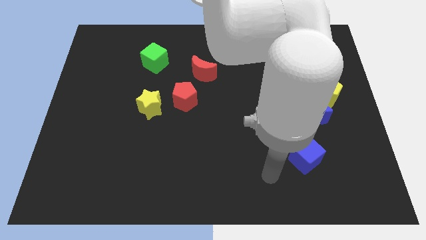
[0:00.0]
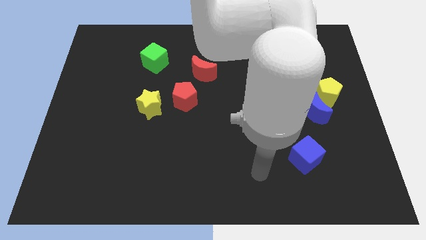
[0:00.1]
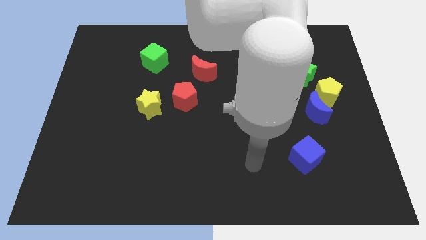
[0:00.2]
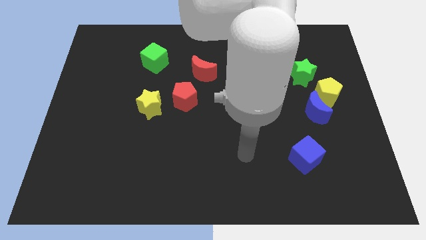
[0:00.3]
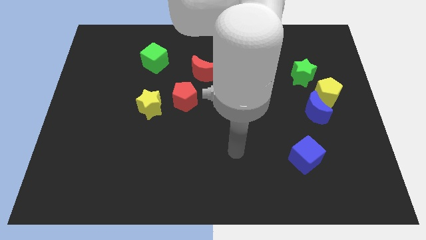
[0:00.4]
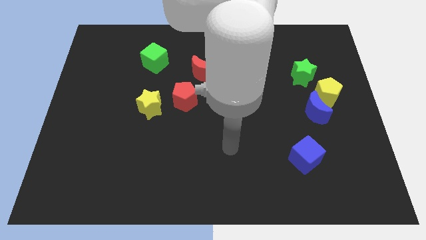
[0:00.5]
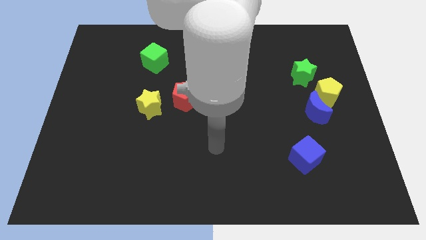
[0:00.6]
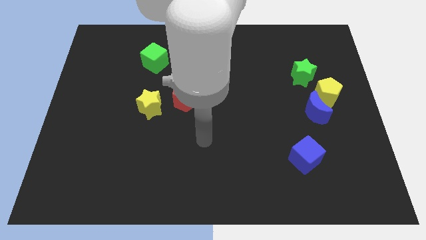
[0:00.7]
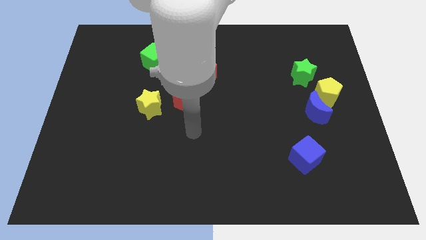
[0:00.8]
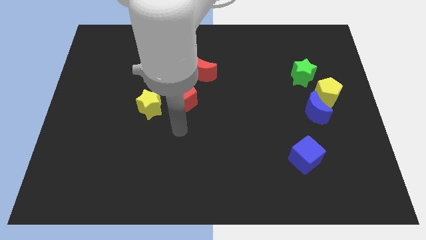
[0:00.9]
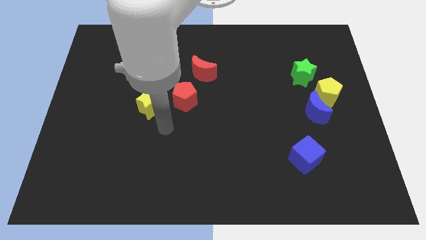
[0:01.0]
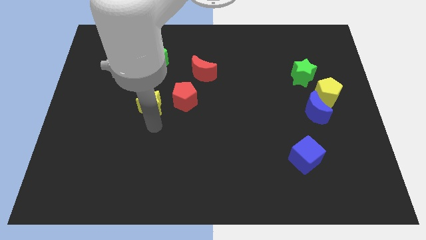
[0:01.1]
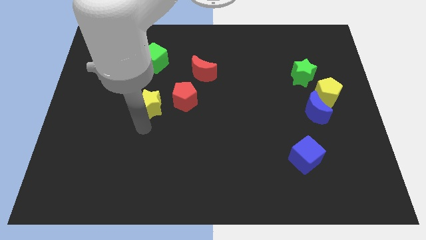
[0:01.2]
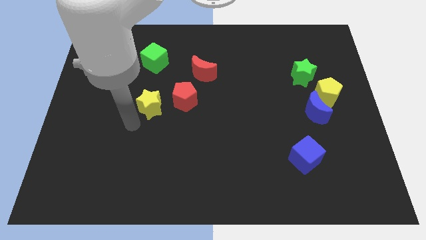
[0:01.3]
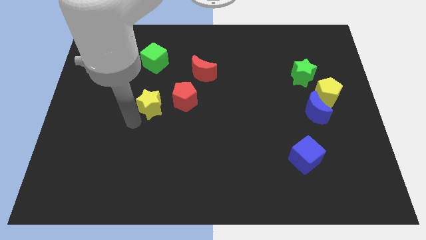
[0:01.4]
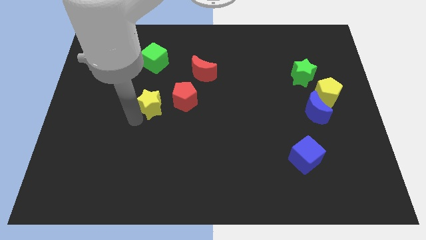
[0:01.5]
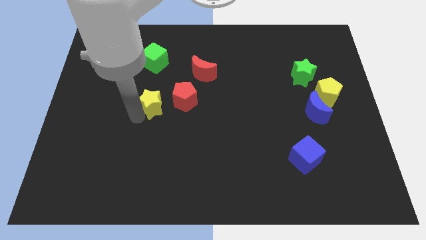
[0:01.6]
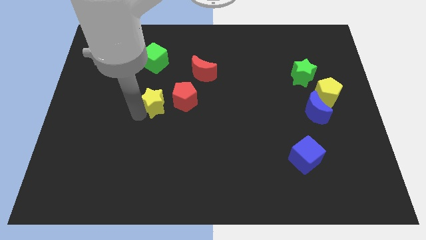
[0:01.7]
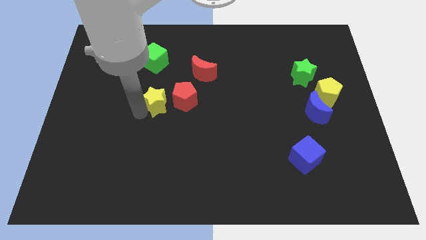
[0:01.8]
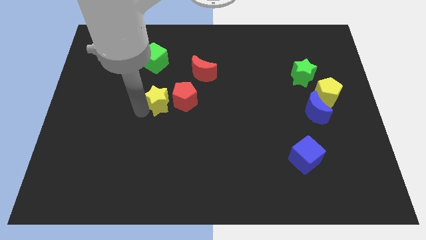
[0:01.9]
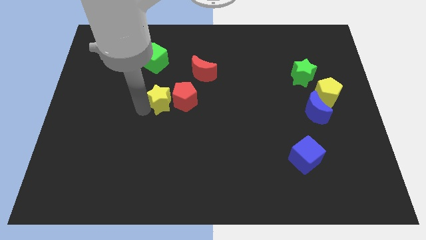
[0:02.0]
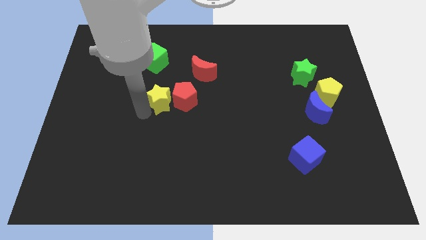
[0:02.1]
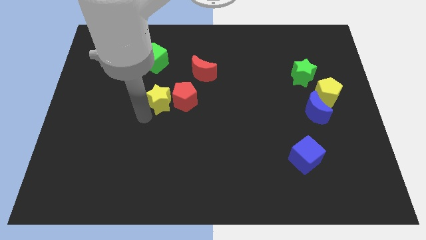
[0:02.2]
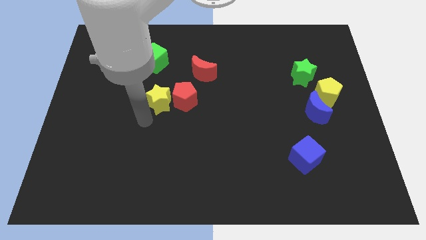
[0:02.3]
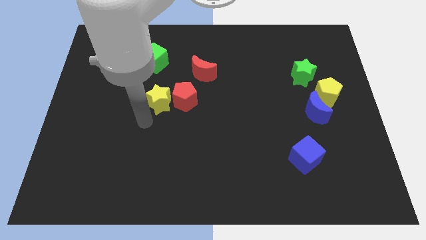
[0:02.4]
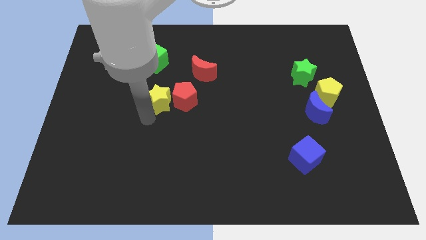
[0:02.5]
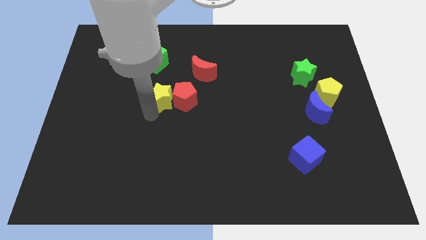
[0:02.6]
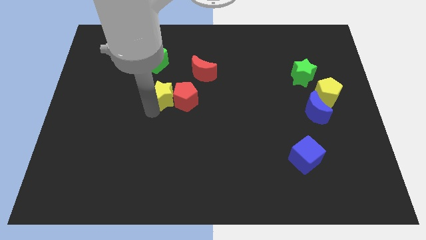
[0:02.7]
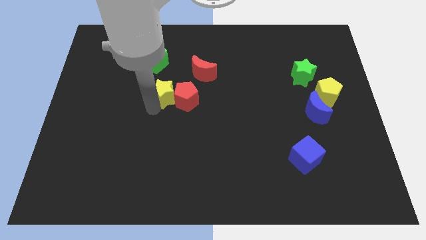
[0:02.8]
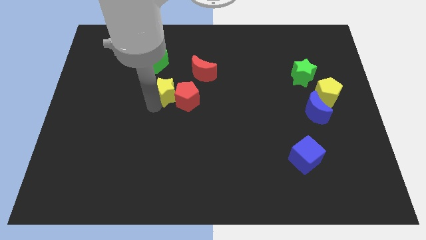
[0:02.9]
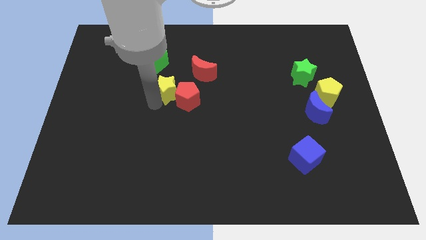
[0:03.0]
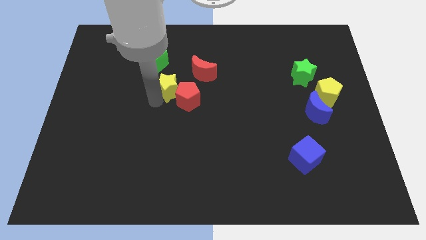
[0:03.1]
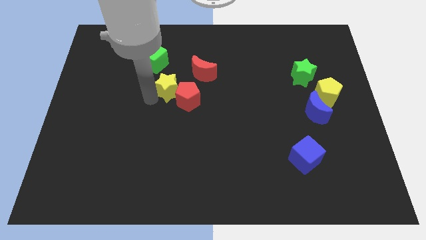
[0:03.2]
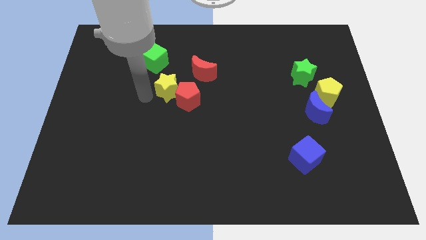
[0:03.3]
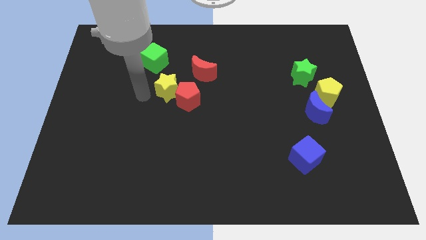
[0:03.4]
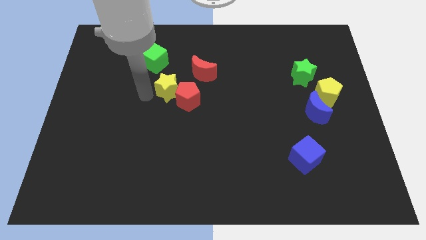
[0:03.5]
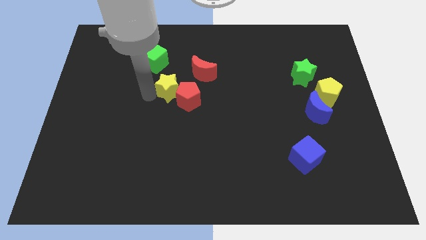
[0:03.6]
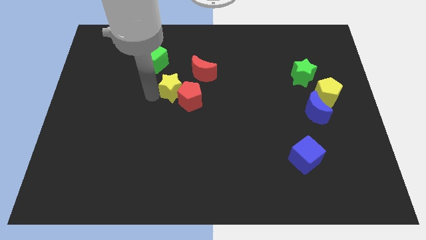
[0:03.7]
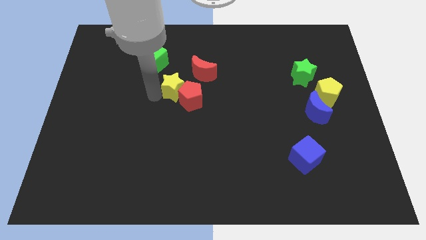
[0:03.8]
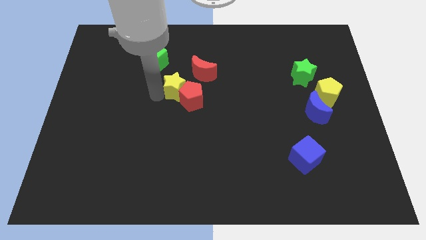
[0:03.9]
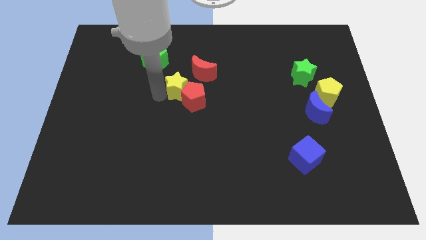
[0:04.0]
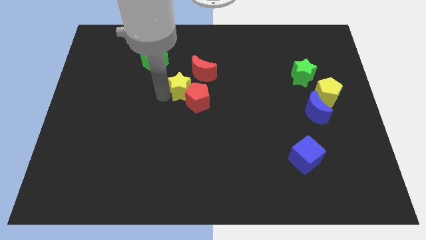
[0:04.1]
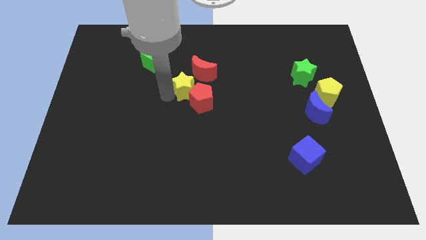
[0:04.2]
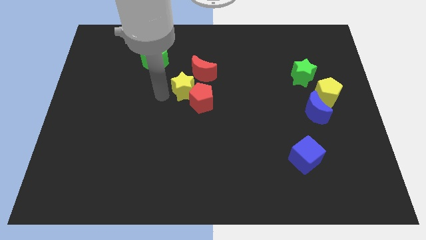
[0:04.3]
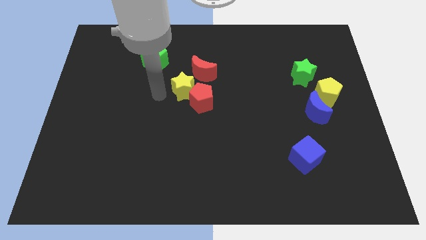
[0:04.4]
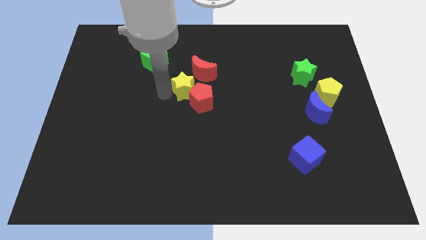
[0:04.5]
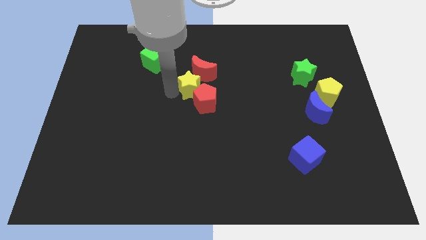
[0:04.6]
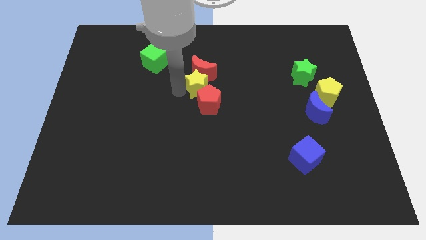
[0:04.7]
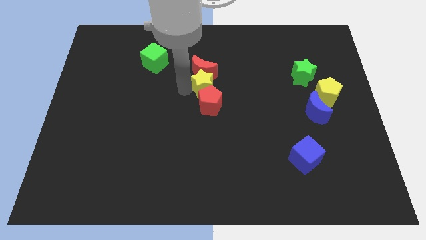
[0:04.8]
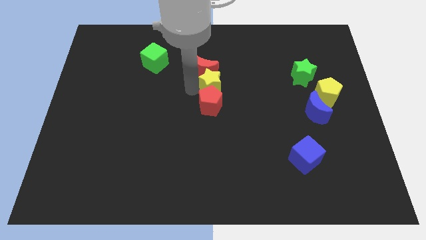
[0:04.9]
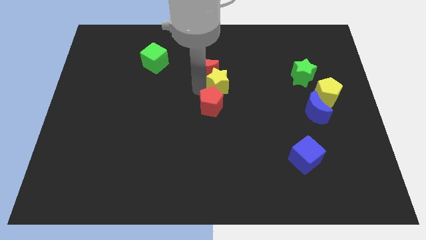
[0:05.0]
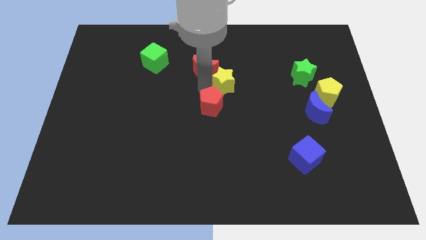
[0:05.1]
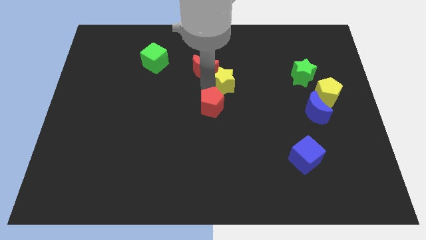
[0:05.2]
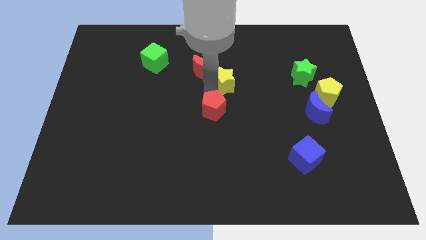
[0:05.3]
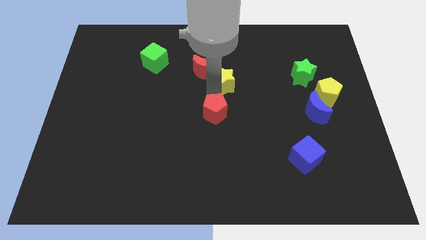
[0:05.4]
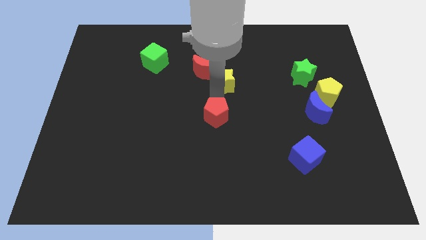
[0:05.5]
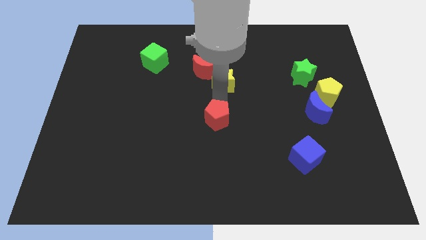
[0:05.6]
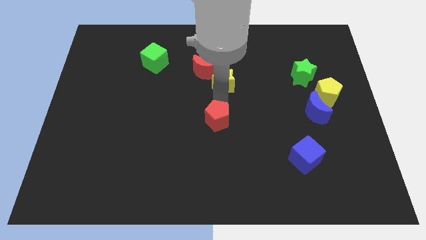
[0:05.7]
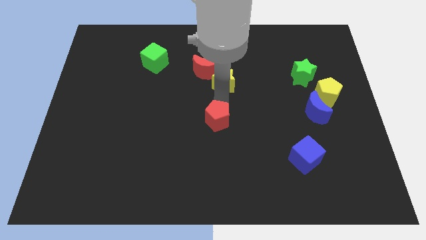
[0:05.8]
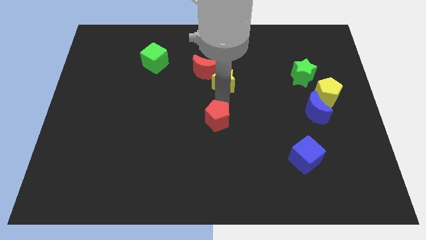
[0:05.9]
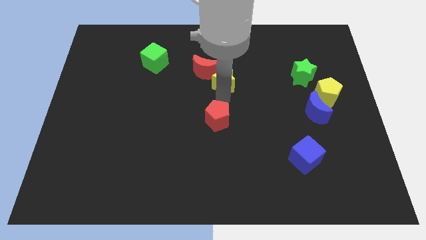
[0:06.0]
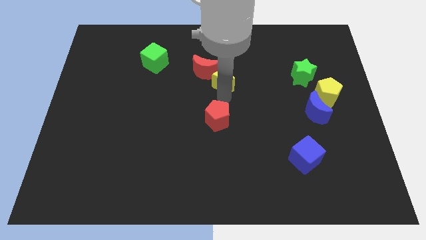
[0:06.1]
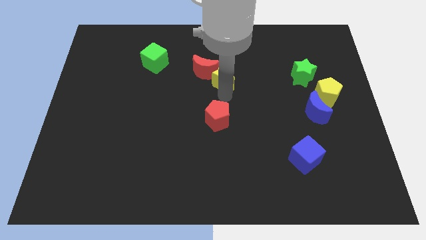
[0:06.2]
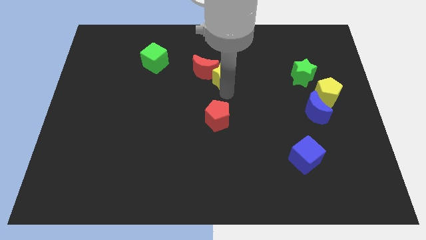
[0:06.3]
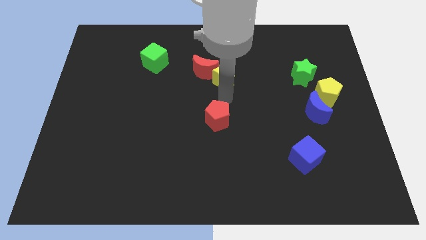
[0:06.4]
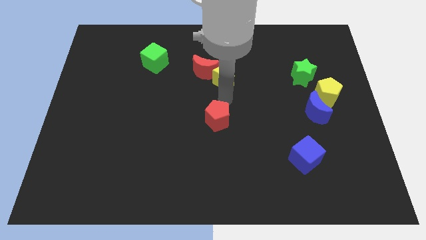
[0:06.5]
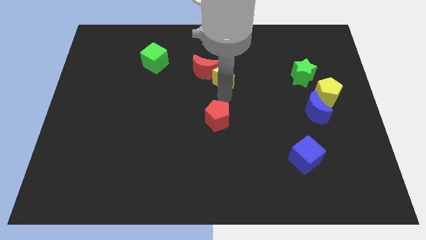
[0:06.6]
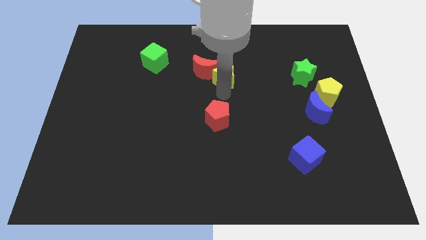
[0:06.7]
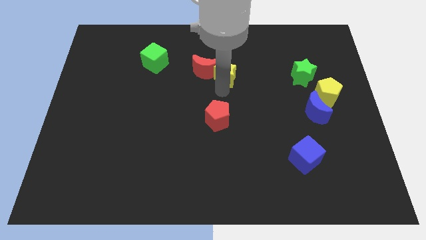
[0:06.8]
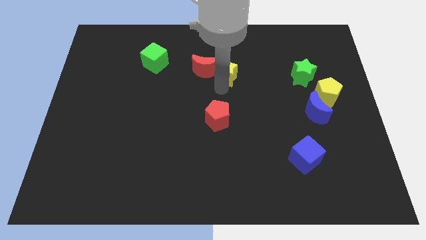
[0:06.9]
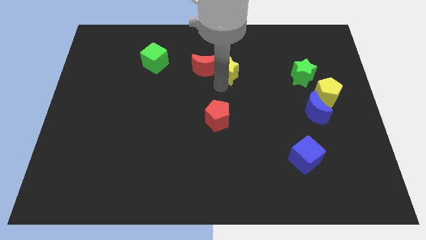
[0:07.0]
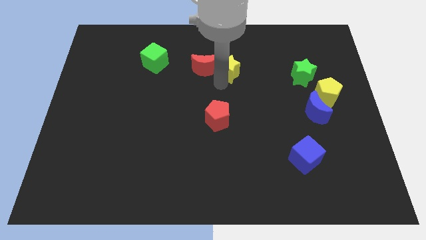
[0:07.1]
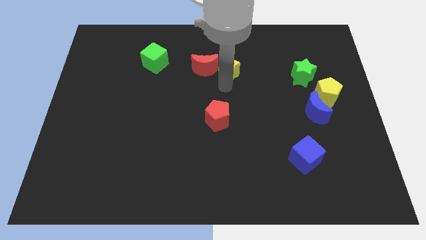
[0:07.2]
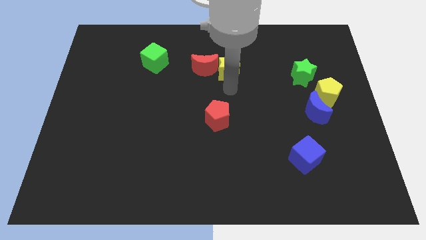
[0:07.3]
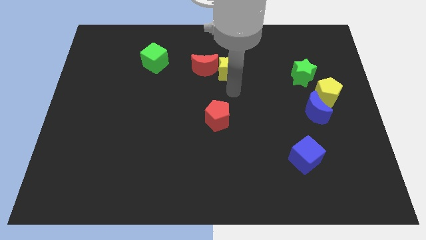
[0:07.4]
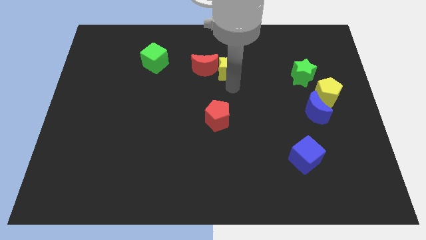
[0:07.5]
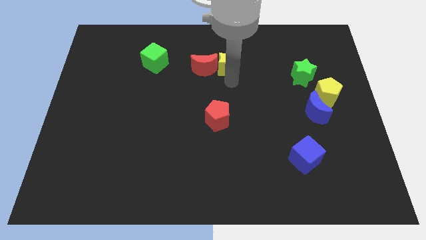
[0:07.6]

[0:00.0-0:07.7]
put the yellow star to the top right of the red moon
